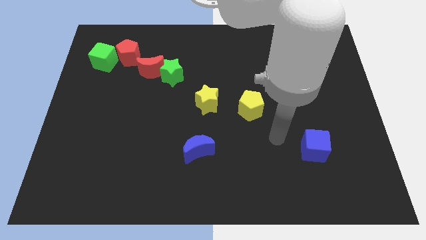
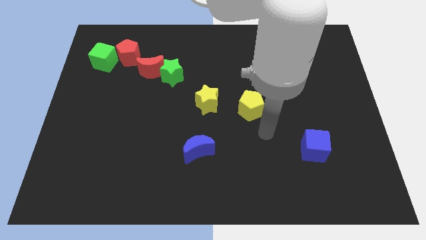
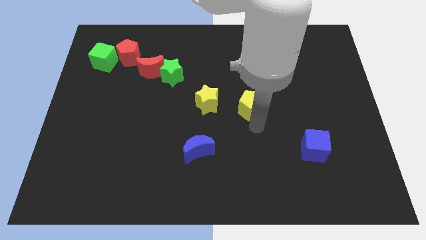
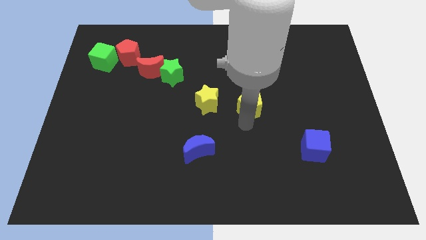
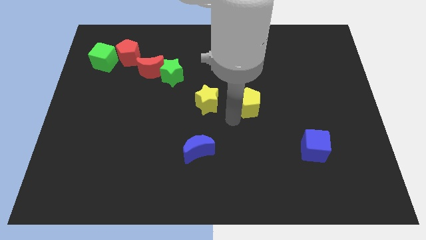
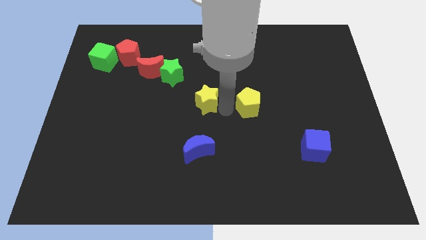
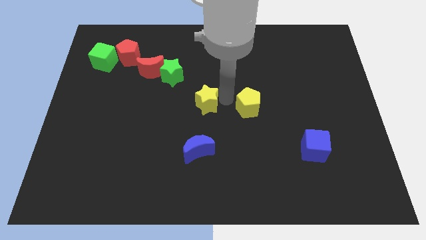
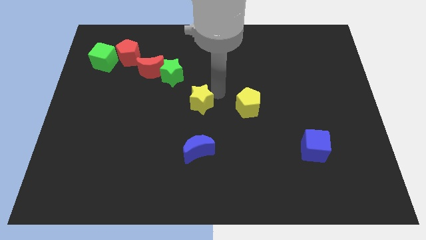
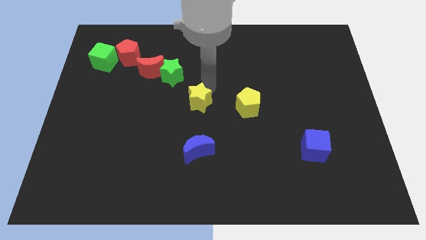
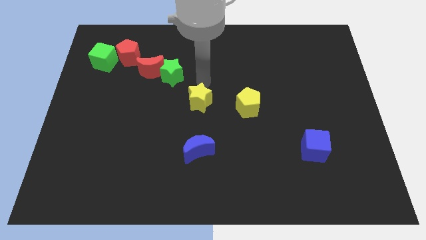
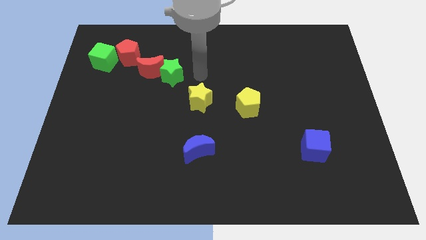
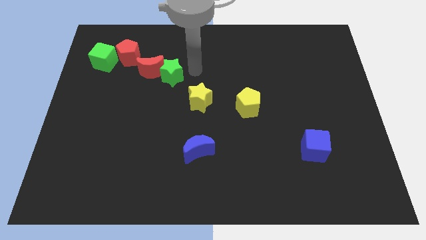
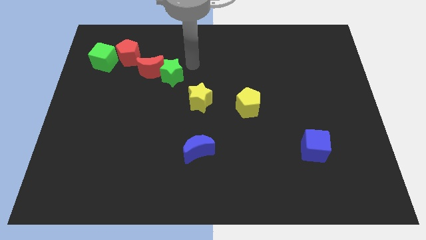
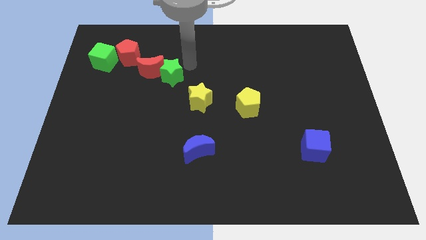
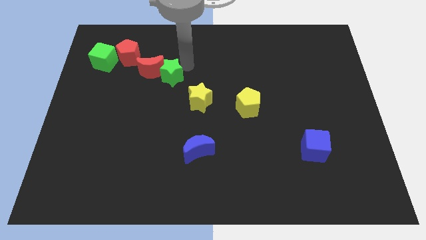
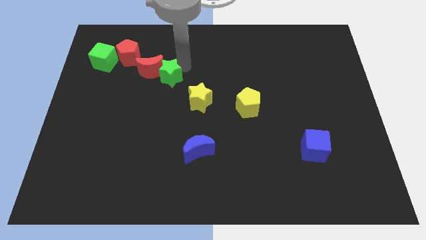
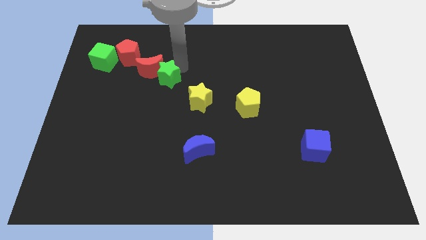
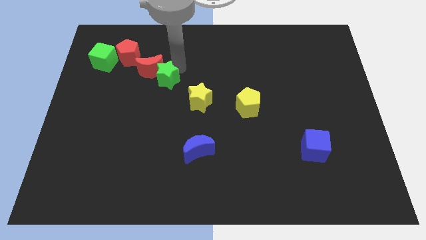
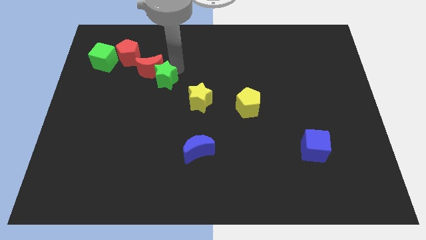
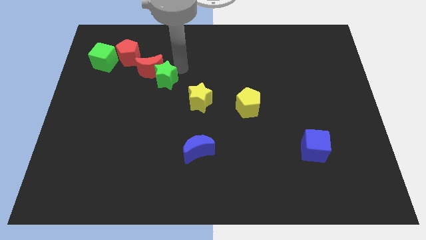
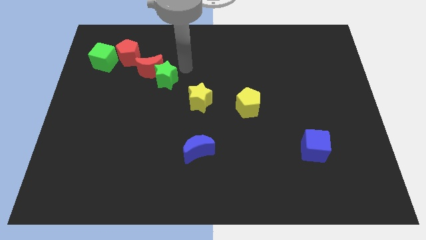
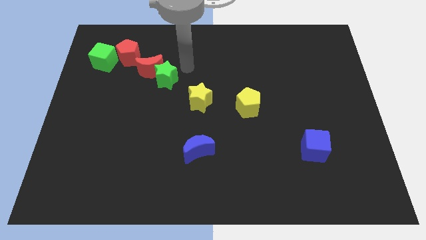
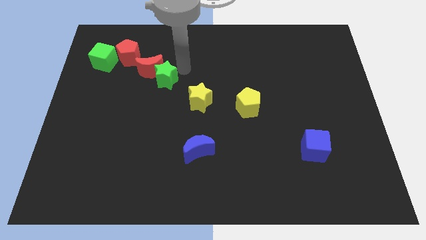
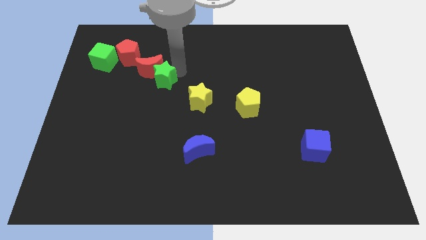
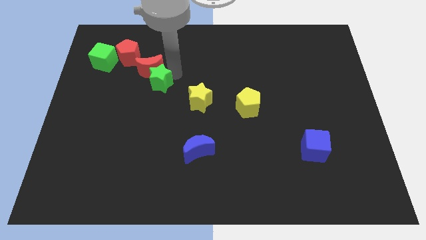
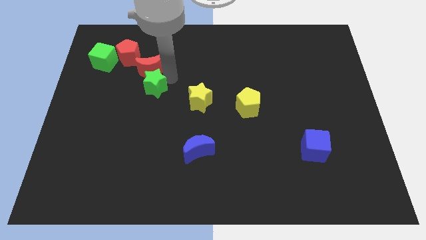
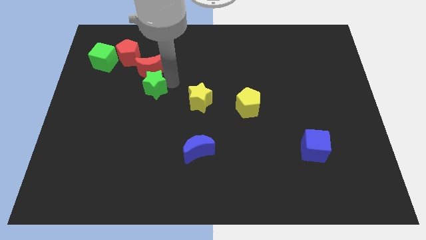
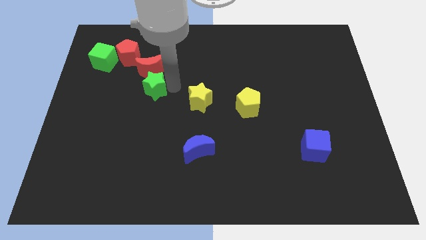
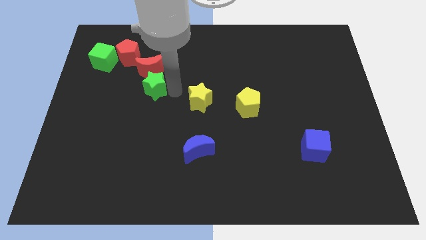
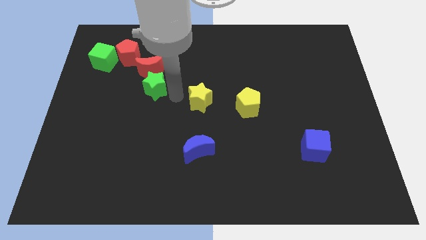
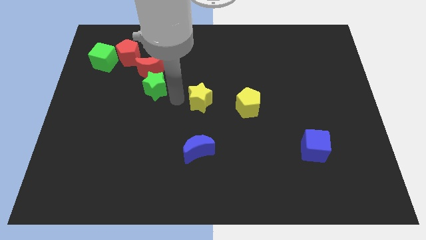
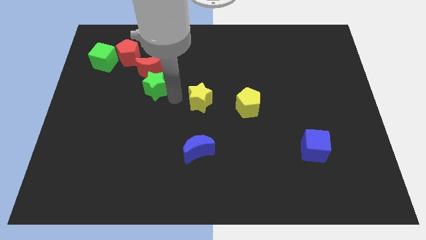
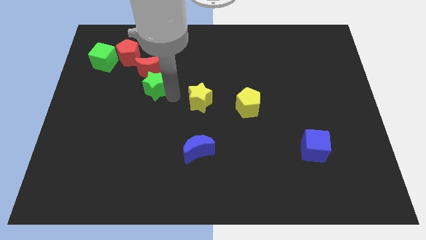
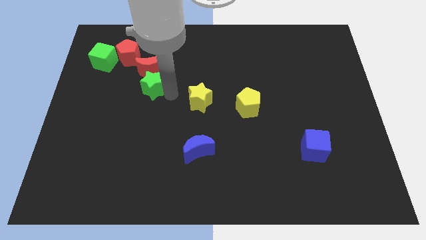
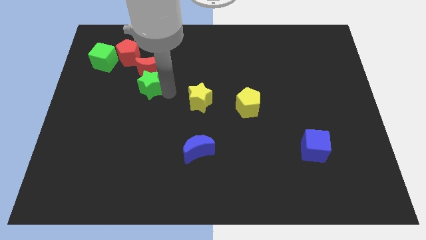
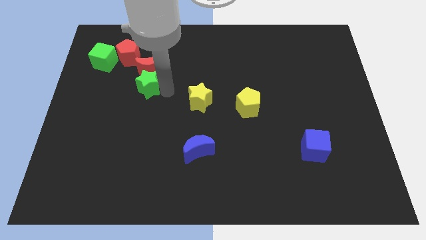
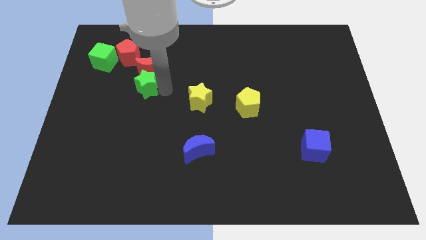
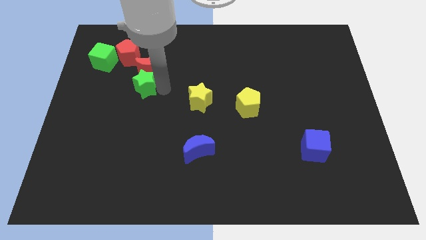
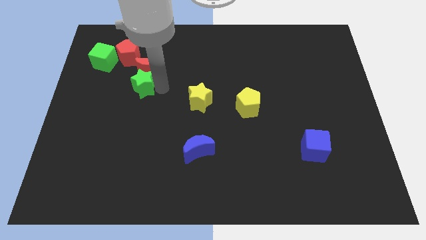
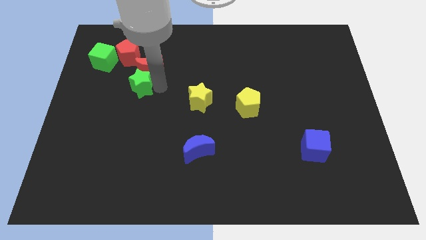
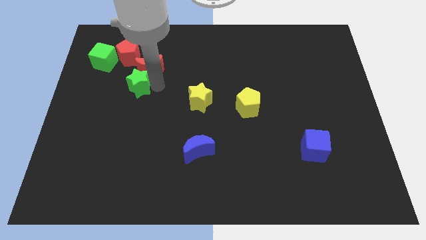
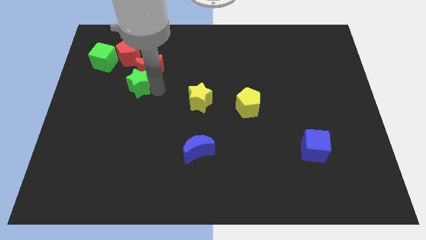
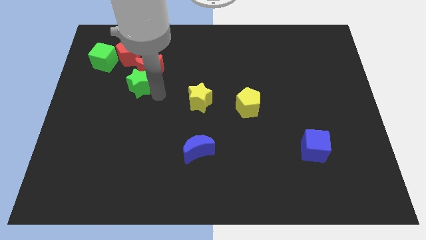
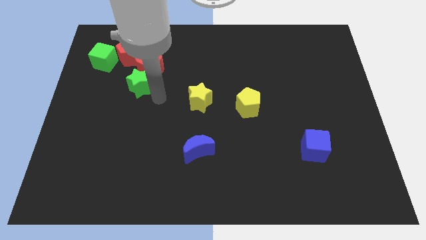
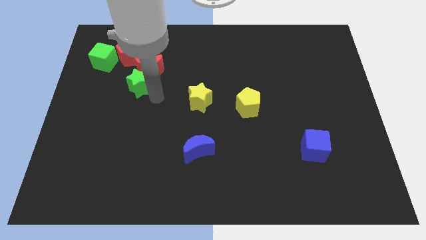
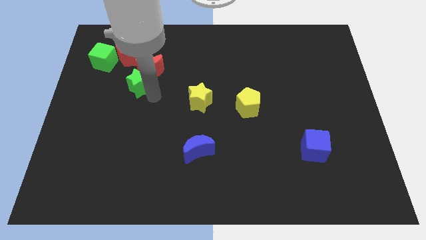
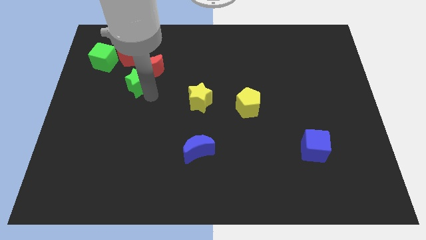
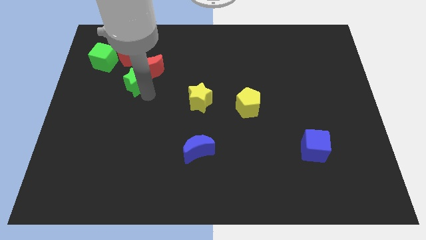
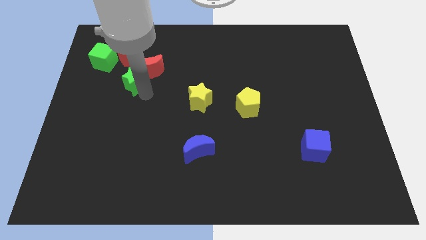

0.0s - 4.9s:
push the green star left of the red moon

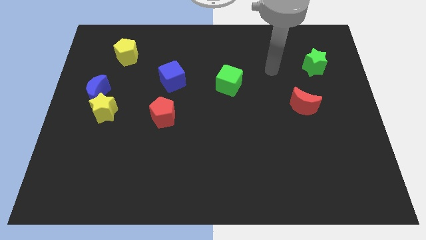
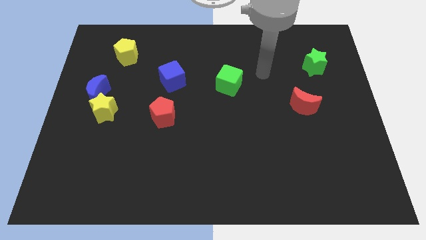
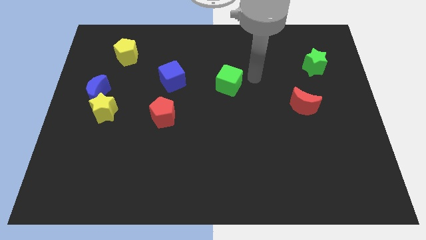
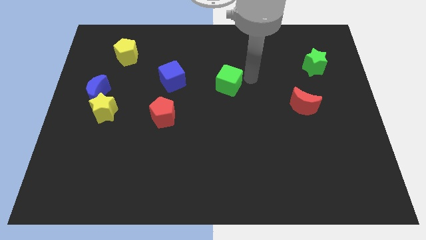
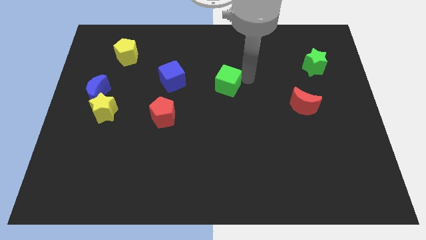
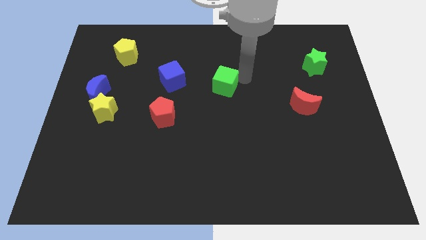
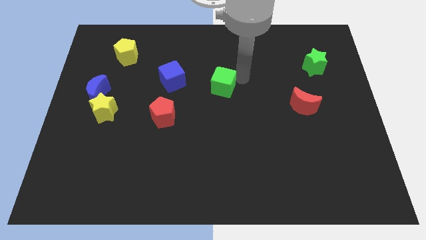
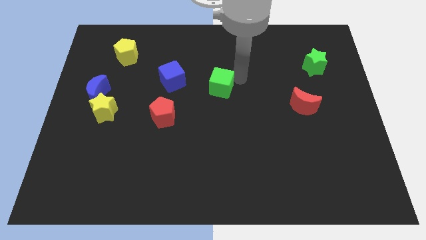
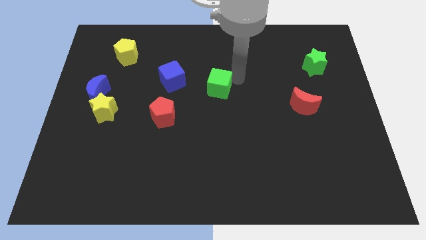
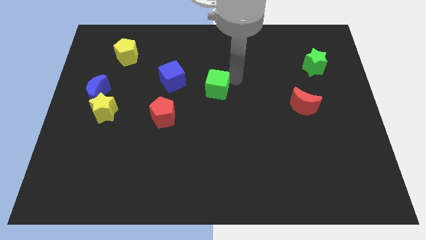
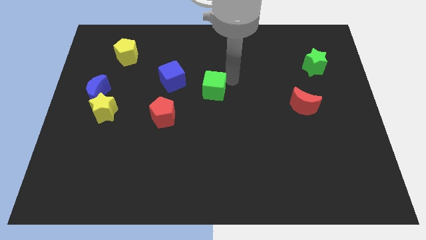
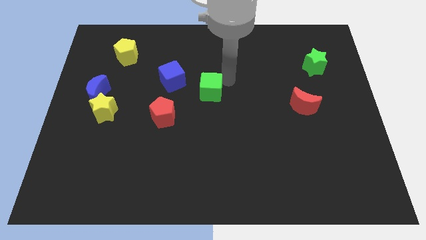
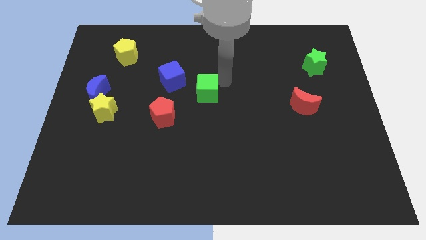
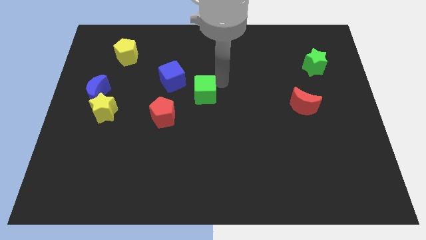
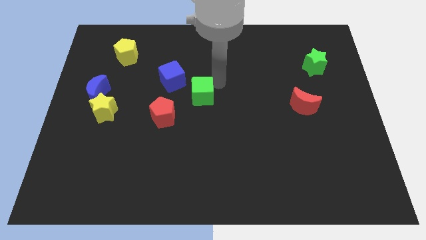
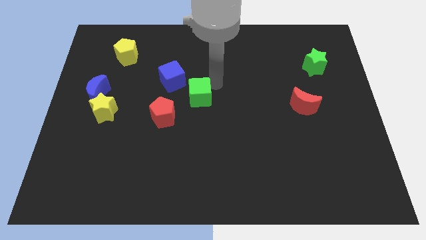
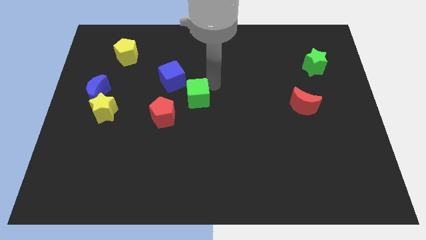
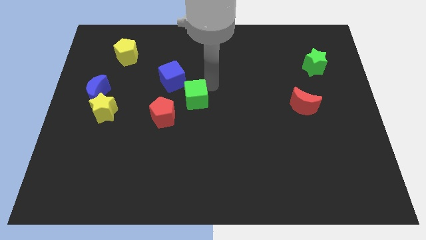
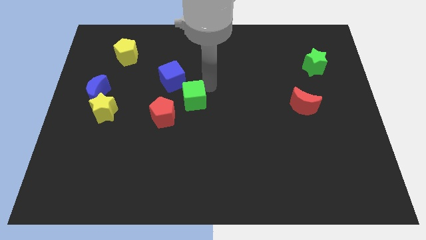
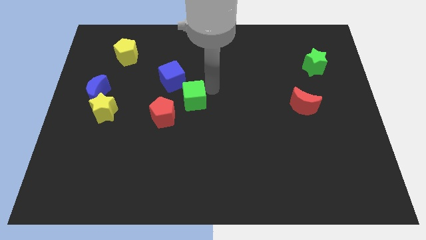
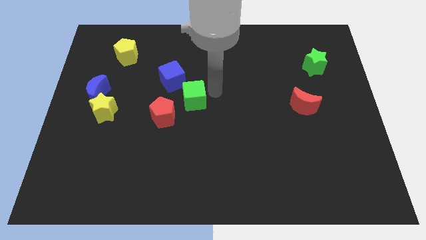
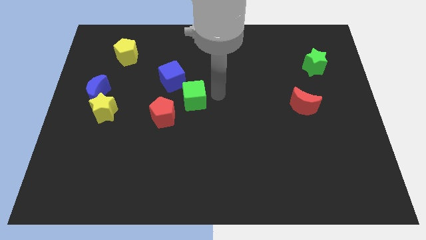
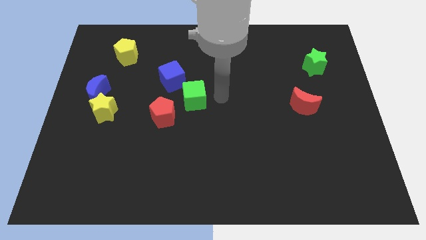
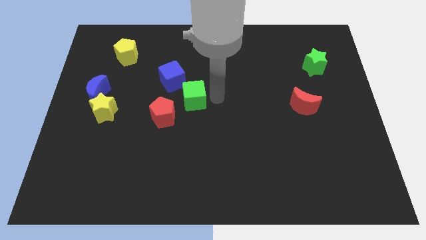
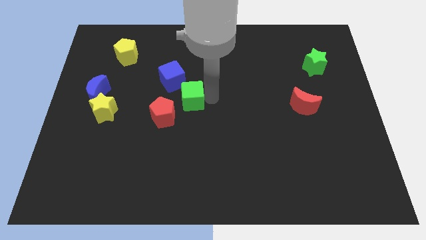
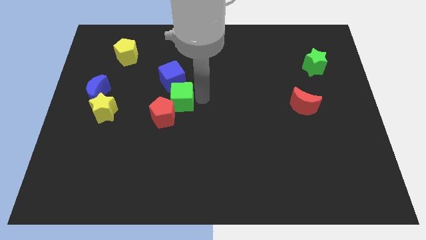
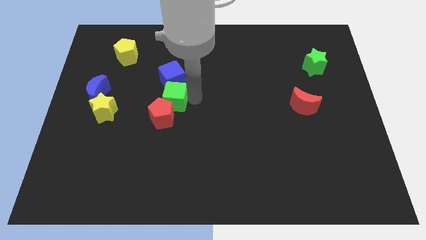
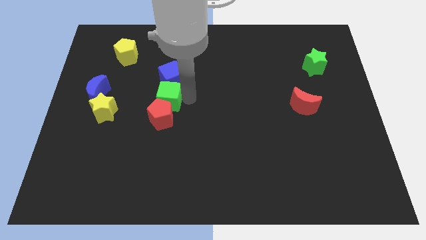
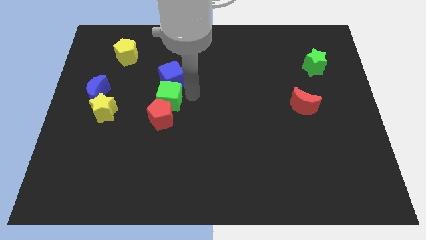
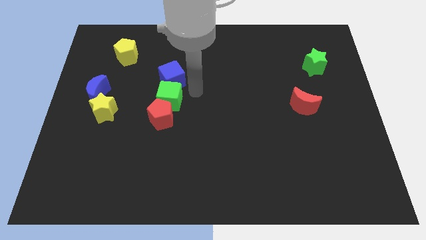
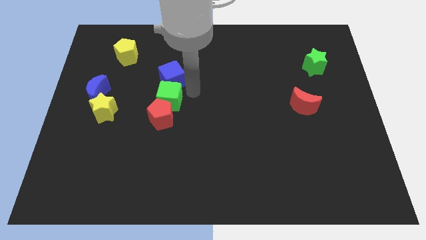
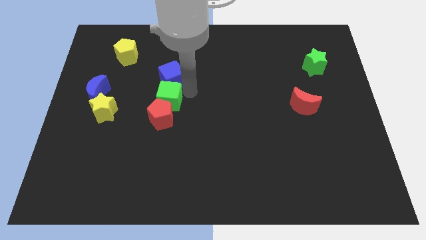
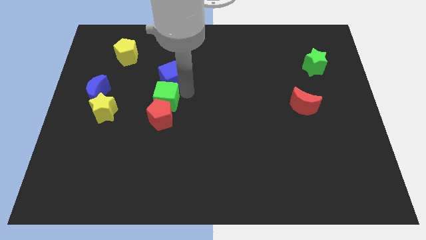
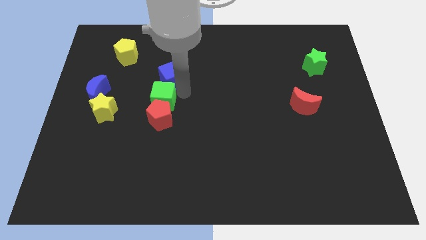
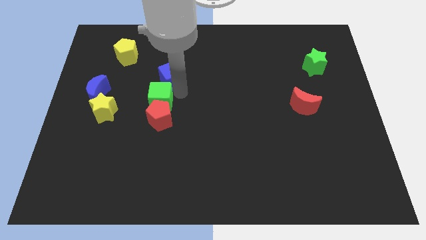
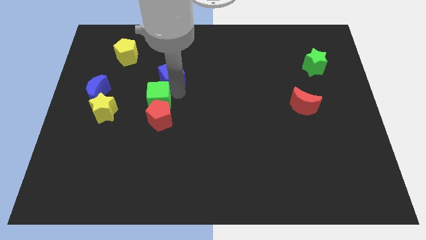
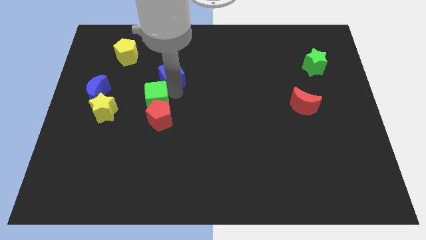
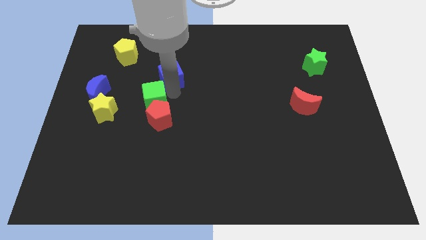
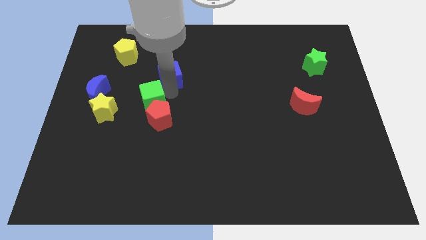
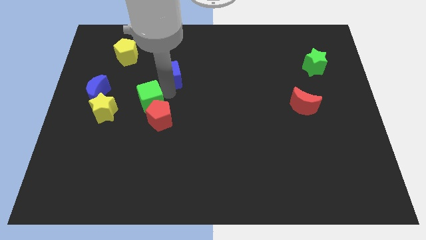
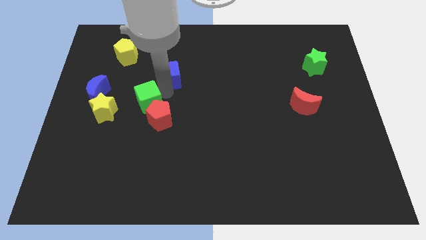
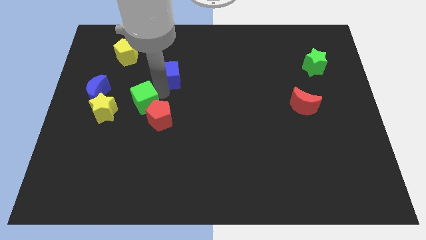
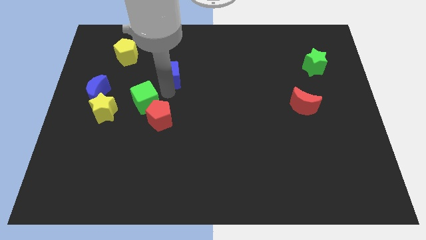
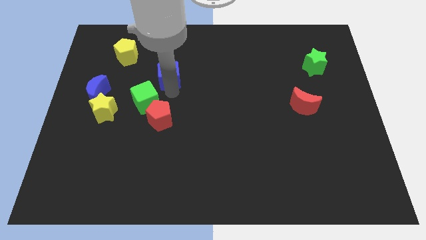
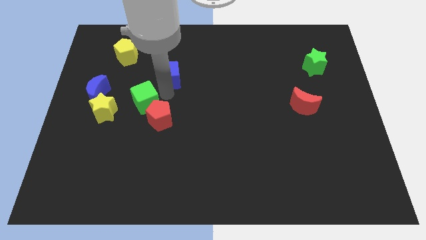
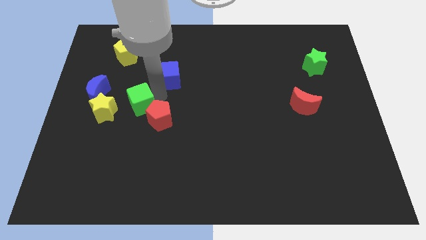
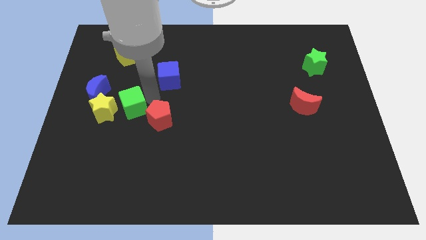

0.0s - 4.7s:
put the green cube to the bottom right of the blue moon
